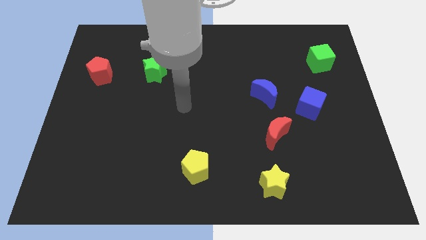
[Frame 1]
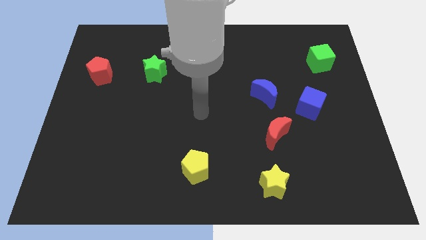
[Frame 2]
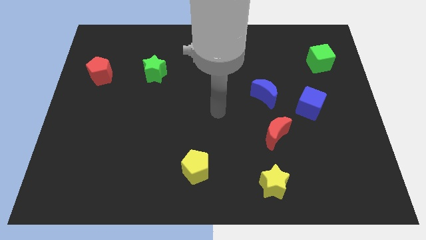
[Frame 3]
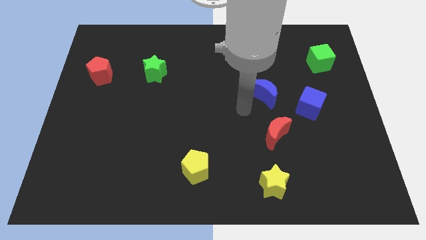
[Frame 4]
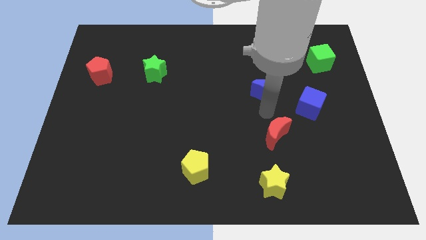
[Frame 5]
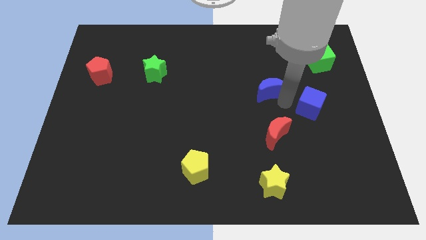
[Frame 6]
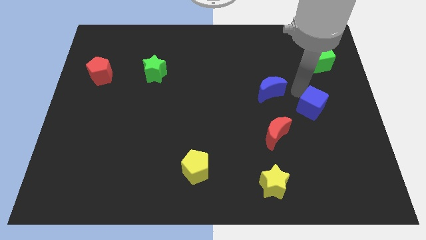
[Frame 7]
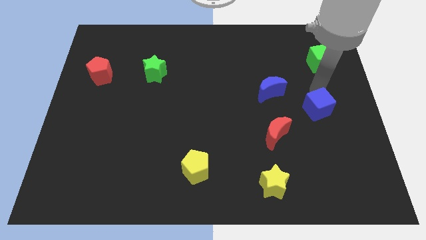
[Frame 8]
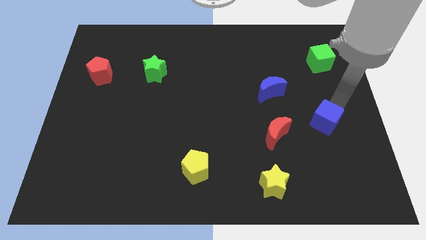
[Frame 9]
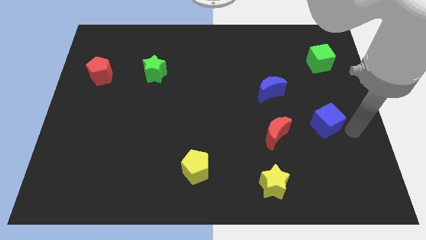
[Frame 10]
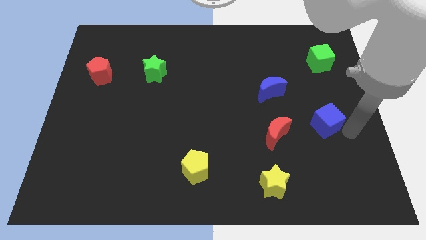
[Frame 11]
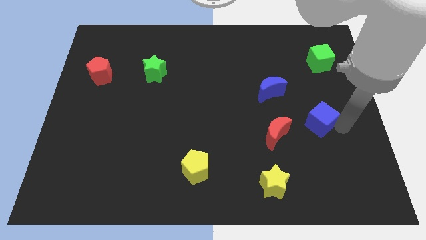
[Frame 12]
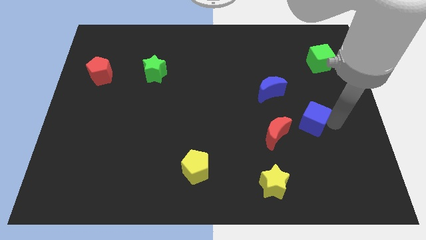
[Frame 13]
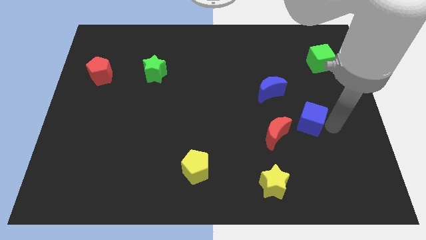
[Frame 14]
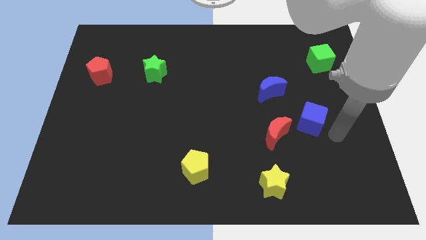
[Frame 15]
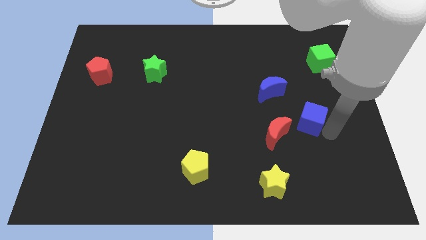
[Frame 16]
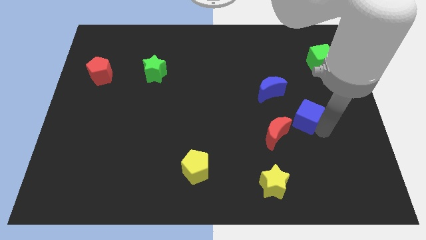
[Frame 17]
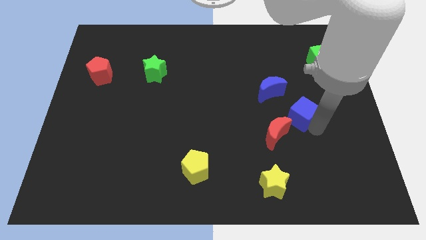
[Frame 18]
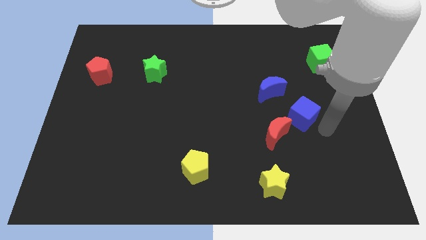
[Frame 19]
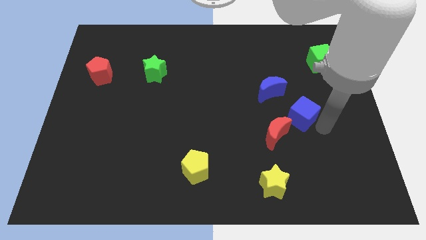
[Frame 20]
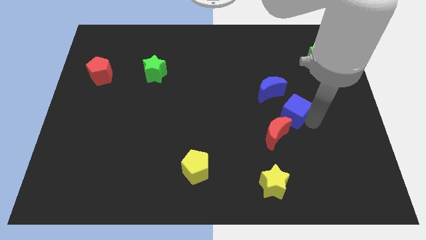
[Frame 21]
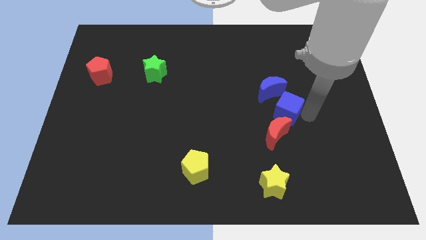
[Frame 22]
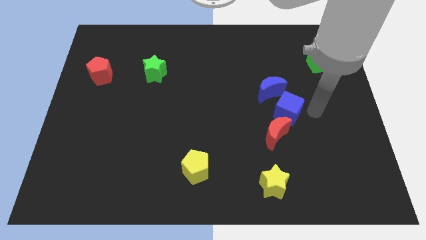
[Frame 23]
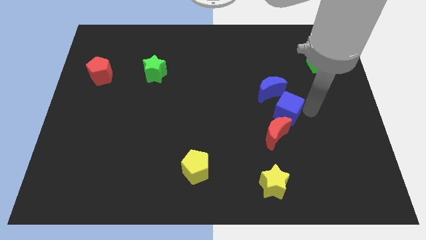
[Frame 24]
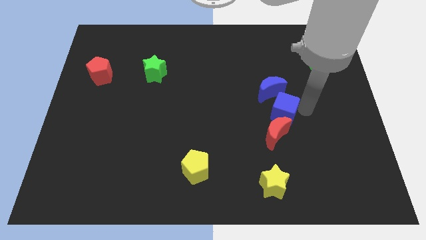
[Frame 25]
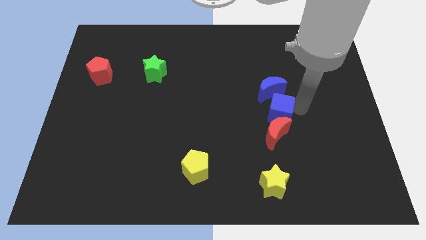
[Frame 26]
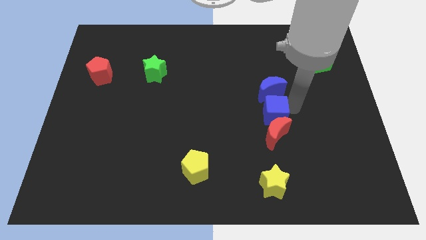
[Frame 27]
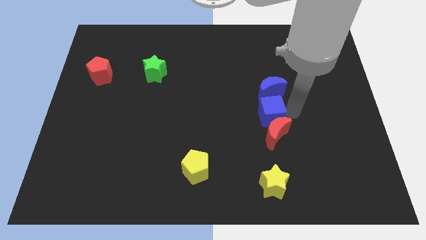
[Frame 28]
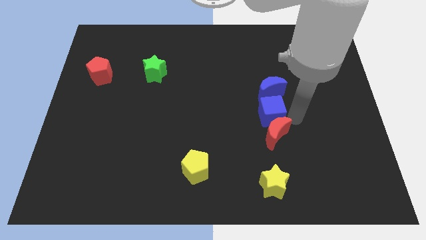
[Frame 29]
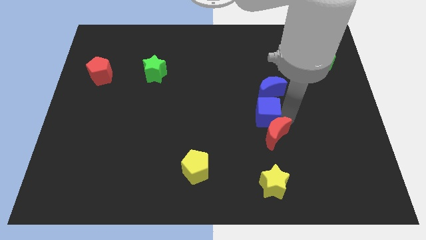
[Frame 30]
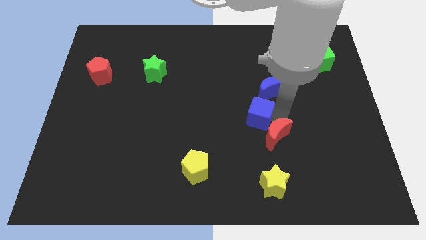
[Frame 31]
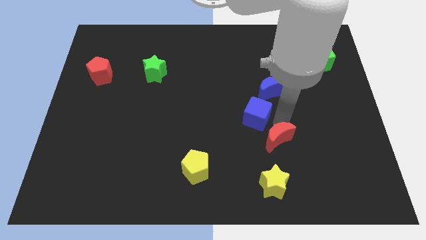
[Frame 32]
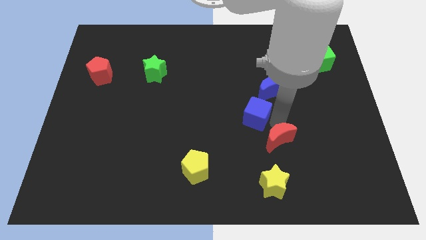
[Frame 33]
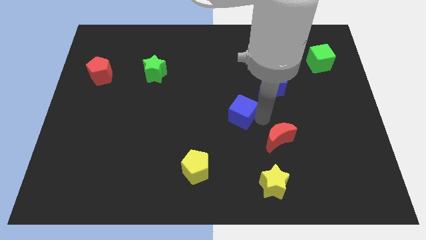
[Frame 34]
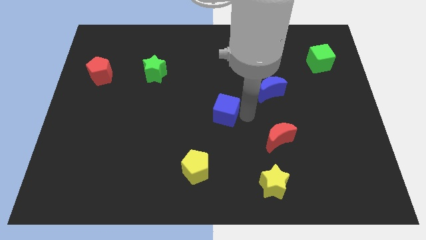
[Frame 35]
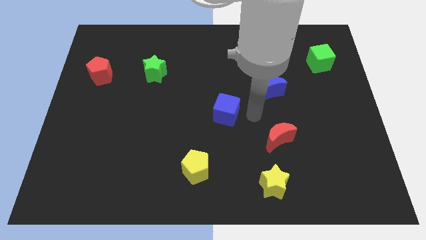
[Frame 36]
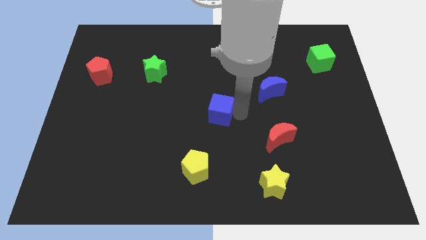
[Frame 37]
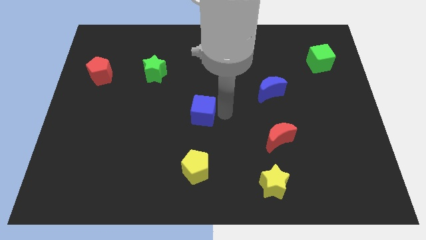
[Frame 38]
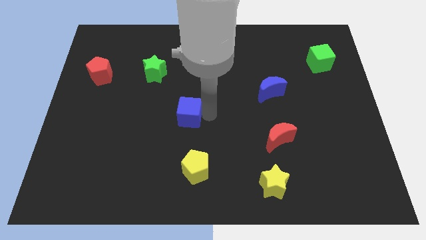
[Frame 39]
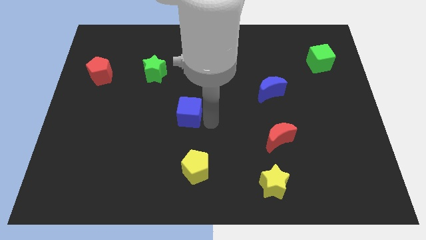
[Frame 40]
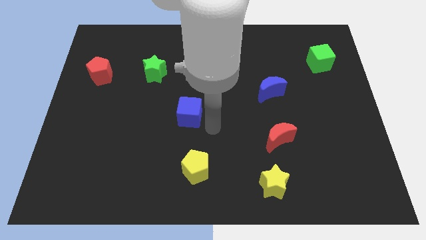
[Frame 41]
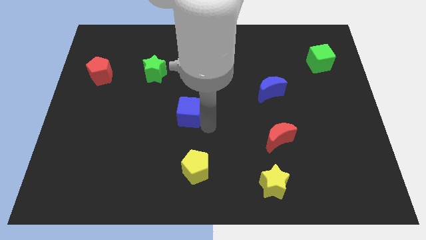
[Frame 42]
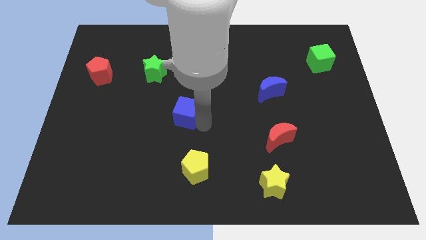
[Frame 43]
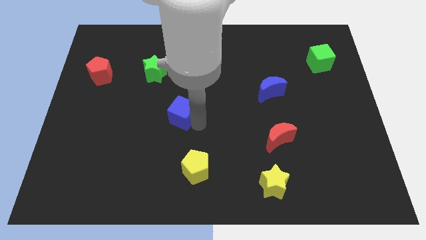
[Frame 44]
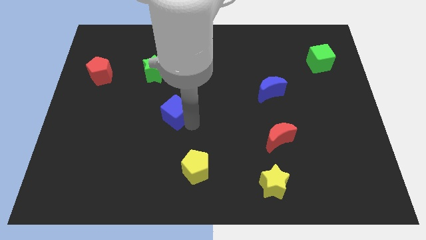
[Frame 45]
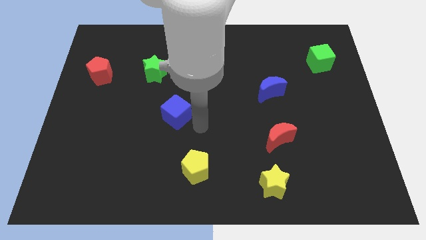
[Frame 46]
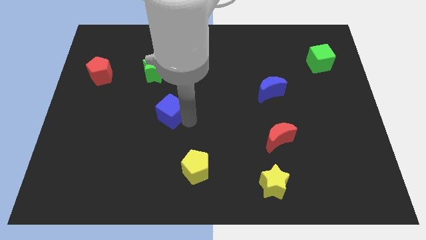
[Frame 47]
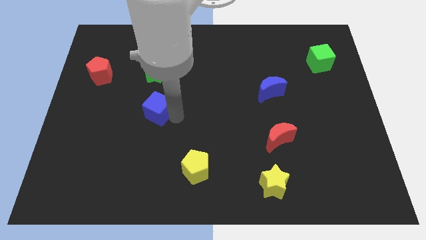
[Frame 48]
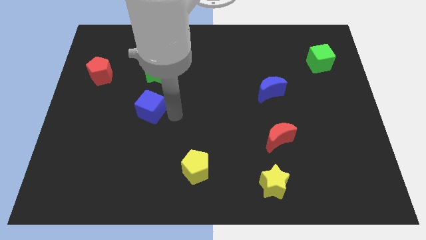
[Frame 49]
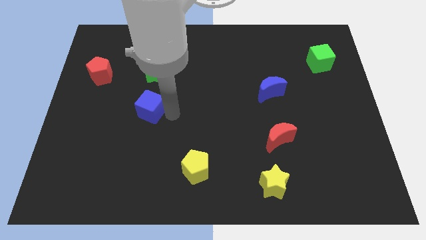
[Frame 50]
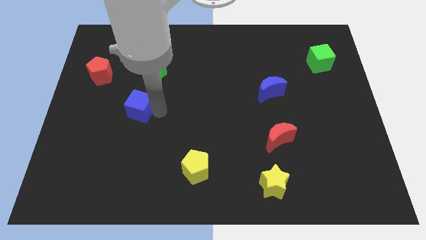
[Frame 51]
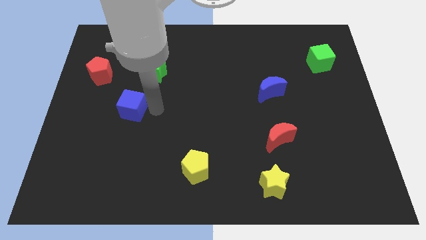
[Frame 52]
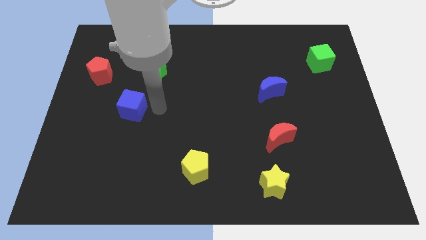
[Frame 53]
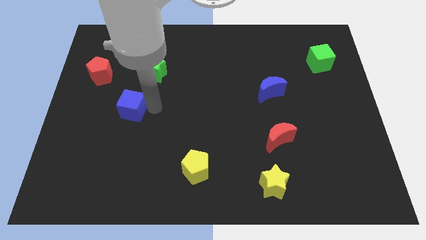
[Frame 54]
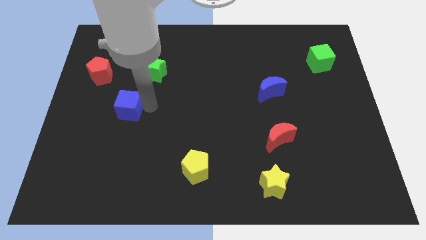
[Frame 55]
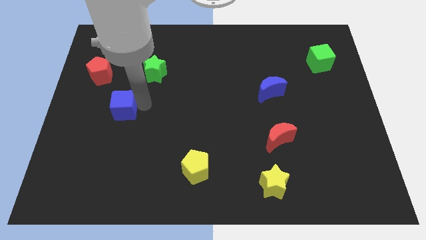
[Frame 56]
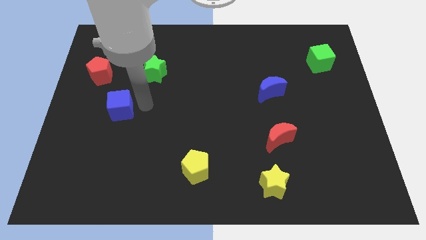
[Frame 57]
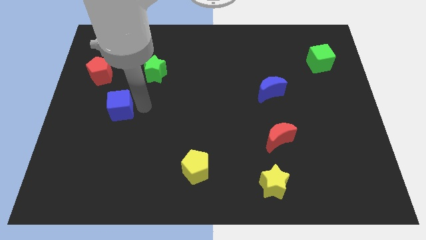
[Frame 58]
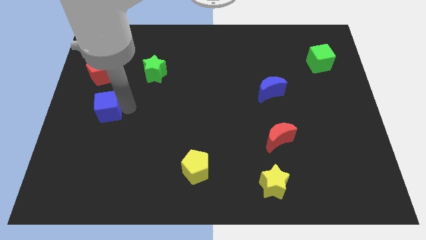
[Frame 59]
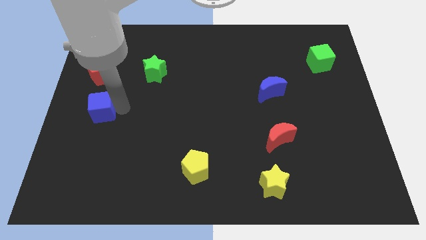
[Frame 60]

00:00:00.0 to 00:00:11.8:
slide the blue cube to the left side
